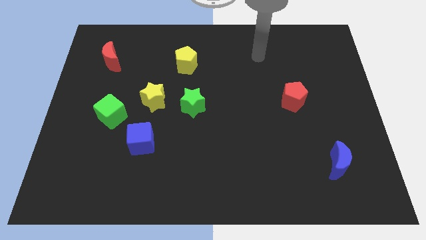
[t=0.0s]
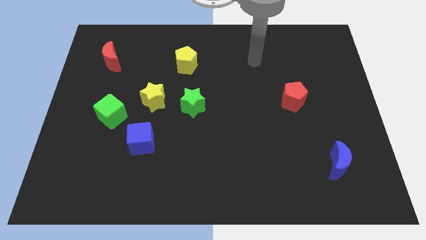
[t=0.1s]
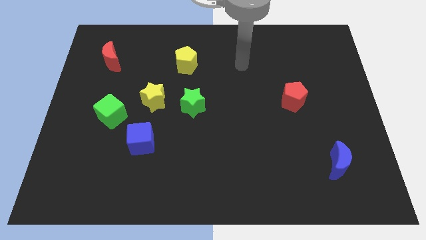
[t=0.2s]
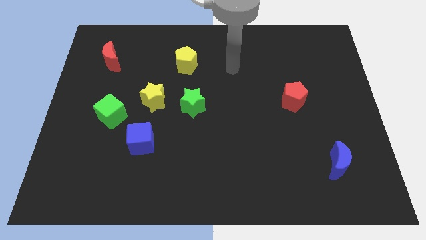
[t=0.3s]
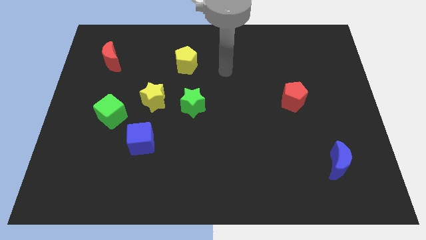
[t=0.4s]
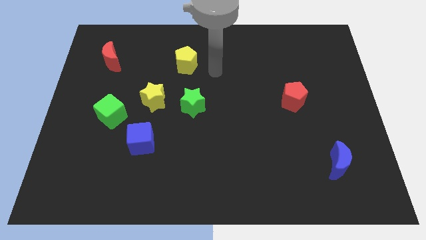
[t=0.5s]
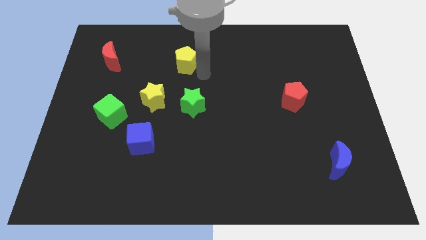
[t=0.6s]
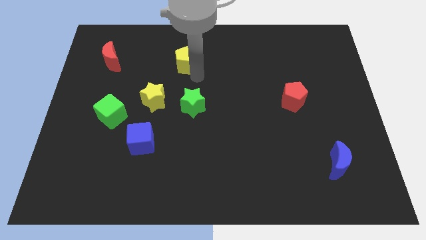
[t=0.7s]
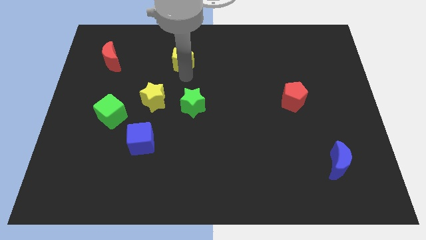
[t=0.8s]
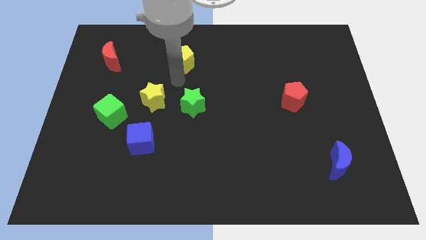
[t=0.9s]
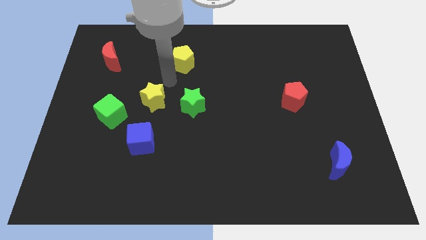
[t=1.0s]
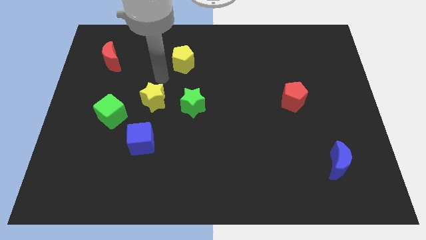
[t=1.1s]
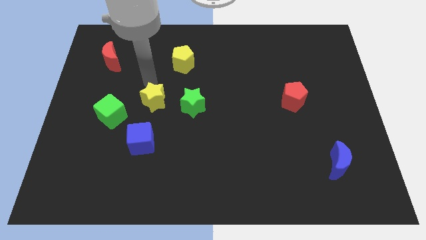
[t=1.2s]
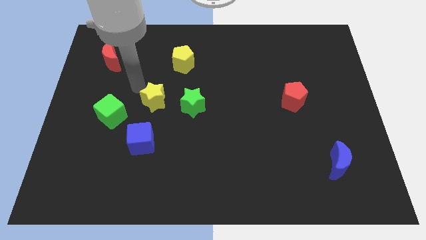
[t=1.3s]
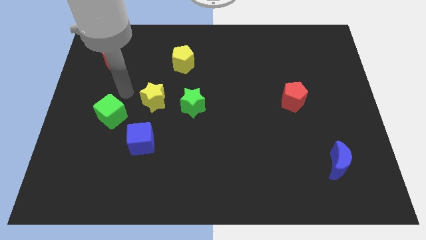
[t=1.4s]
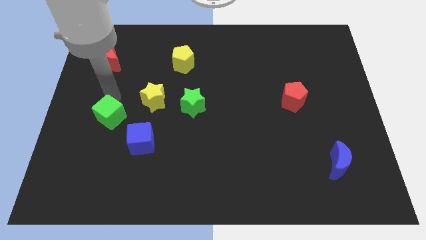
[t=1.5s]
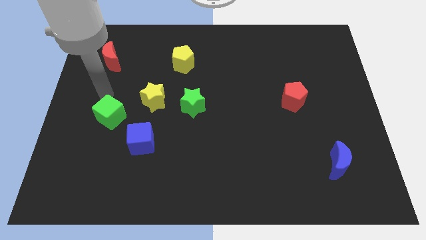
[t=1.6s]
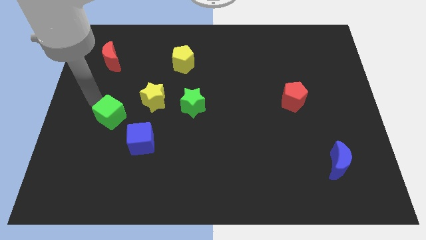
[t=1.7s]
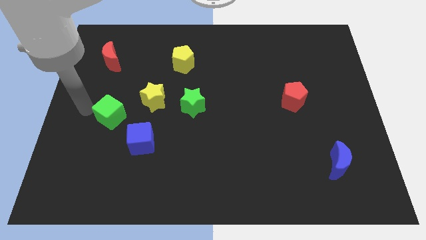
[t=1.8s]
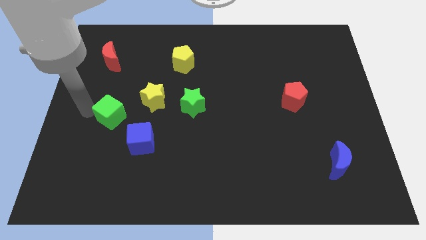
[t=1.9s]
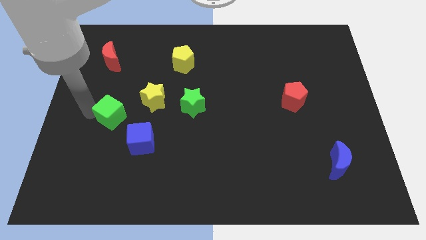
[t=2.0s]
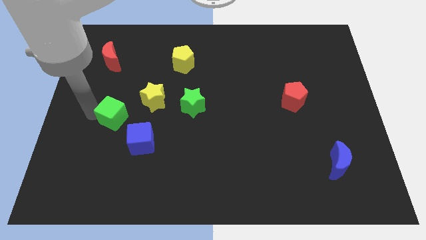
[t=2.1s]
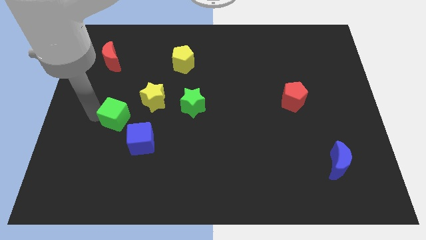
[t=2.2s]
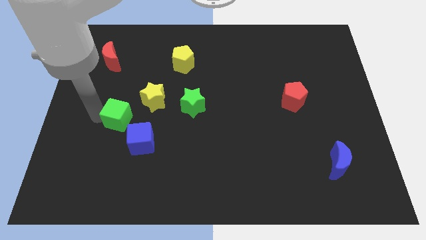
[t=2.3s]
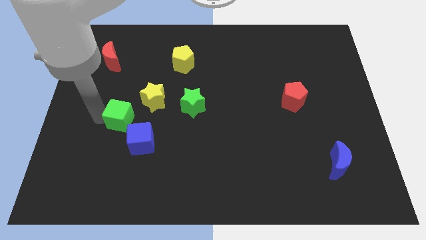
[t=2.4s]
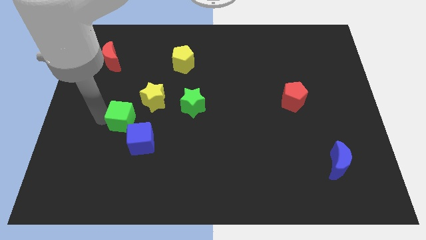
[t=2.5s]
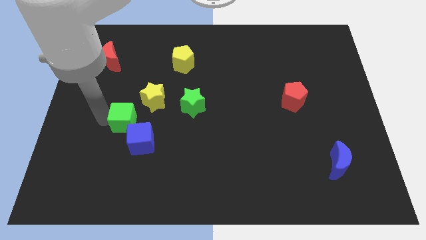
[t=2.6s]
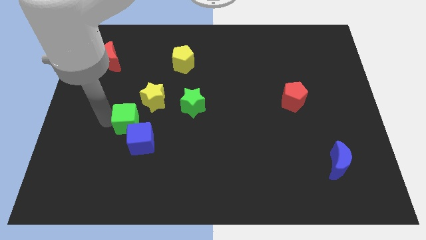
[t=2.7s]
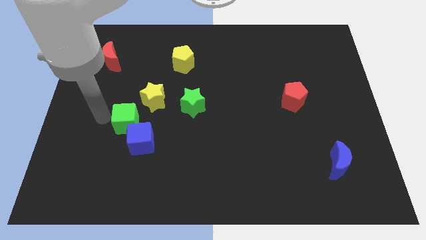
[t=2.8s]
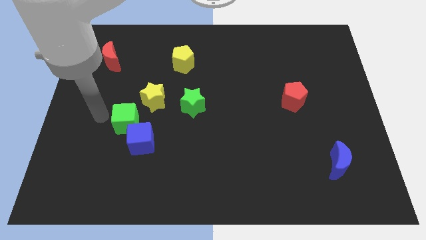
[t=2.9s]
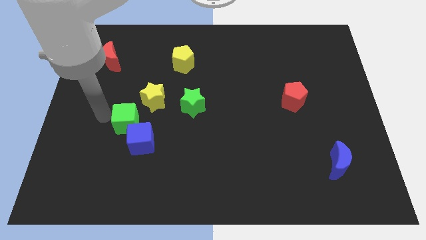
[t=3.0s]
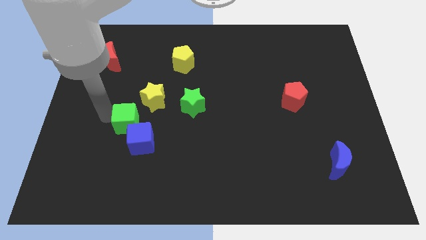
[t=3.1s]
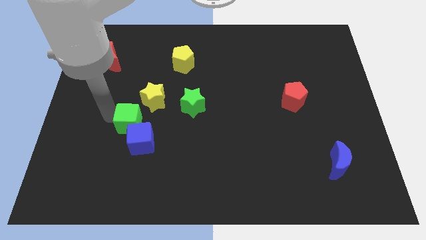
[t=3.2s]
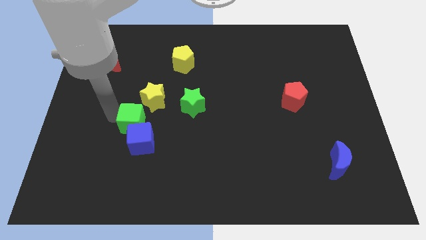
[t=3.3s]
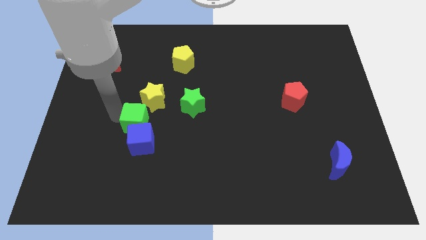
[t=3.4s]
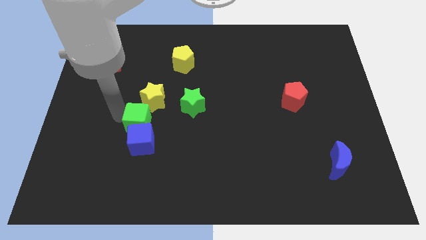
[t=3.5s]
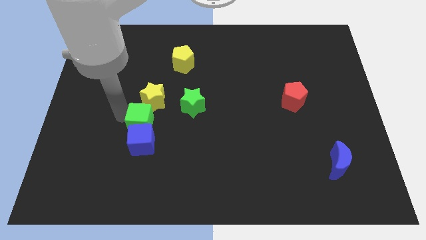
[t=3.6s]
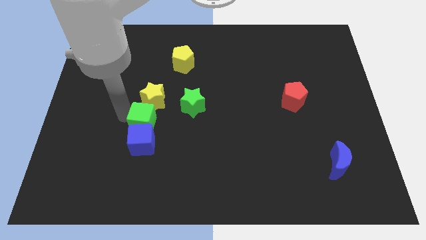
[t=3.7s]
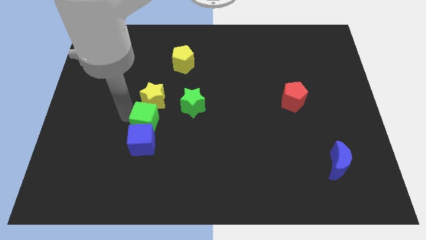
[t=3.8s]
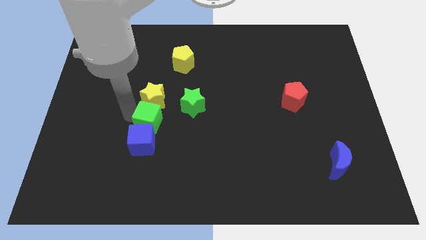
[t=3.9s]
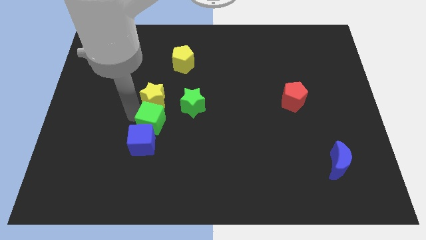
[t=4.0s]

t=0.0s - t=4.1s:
slightly slide the green cube down and then to the right

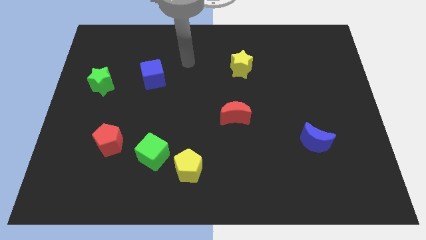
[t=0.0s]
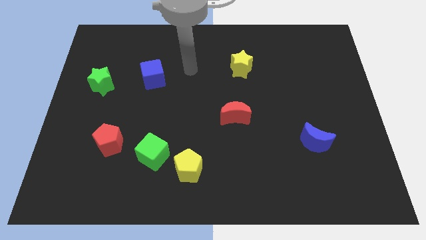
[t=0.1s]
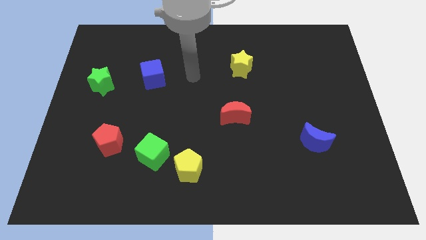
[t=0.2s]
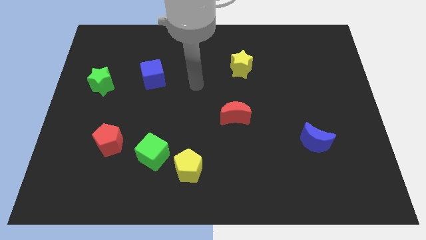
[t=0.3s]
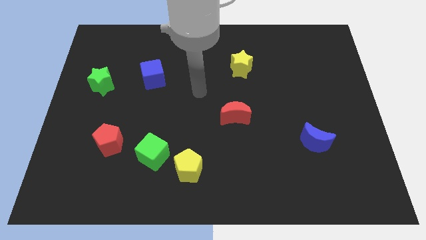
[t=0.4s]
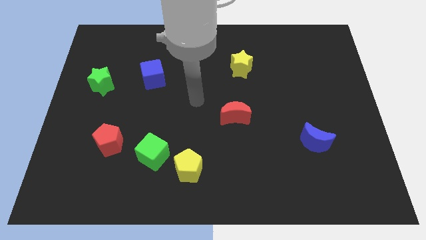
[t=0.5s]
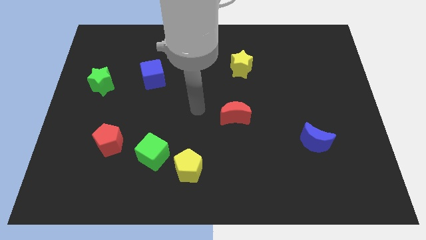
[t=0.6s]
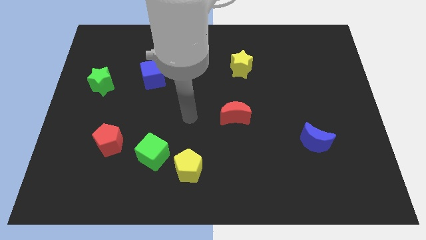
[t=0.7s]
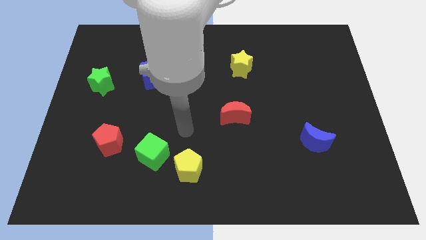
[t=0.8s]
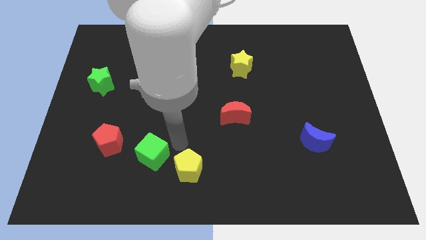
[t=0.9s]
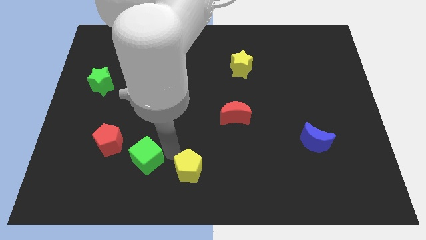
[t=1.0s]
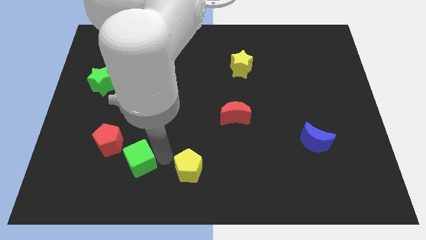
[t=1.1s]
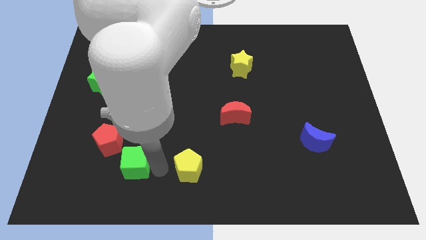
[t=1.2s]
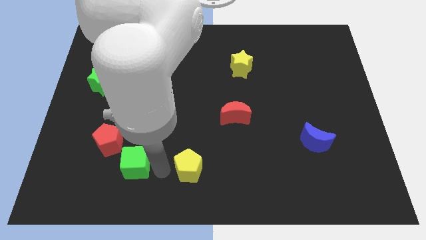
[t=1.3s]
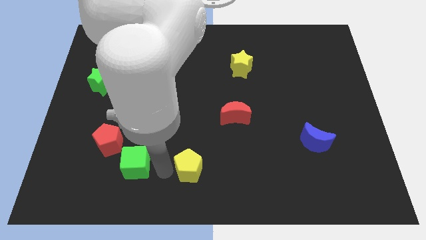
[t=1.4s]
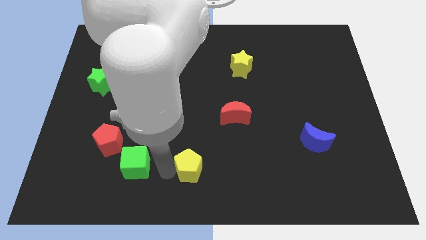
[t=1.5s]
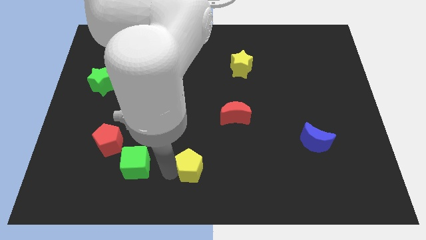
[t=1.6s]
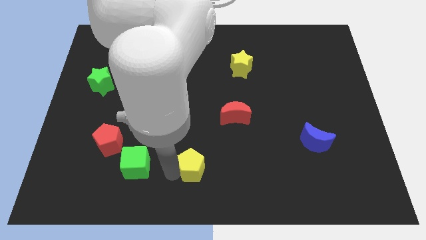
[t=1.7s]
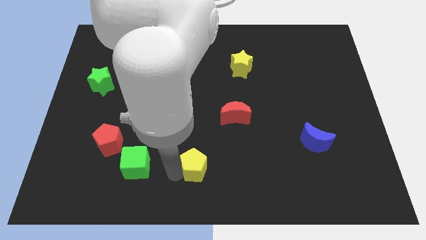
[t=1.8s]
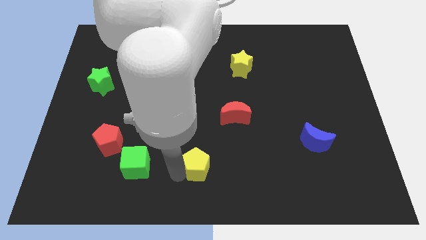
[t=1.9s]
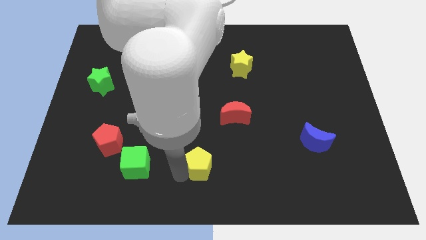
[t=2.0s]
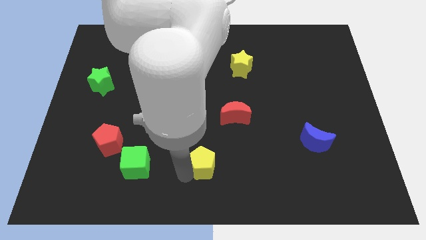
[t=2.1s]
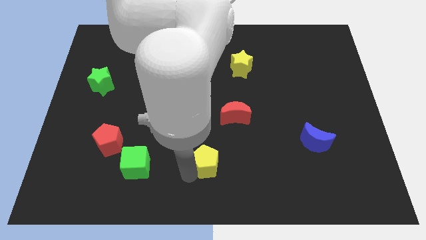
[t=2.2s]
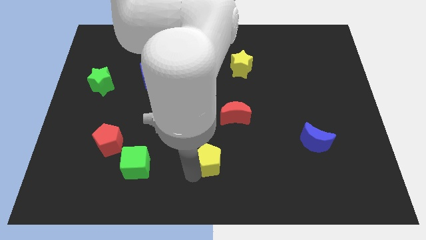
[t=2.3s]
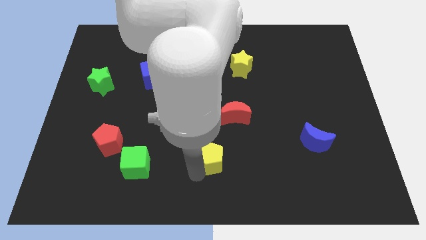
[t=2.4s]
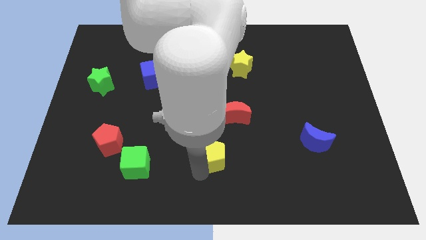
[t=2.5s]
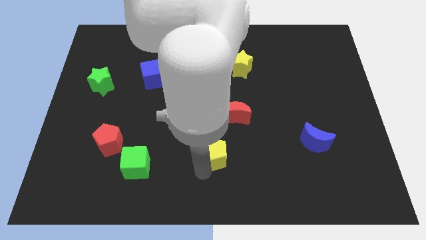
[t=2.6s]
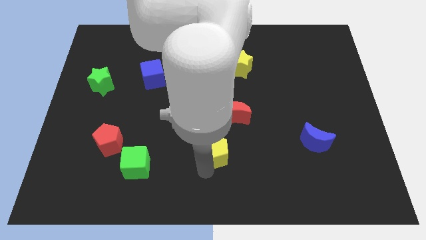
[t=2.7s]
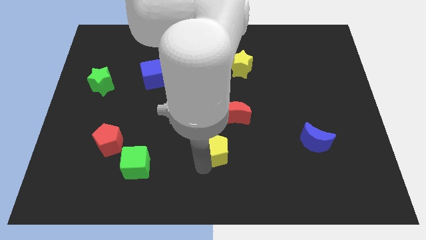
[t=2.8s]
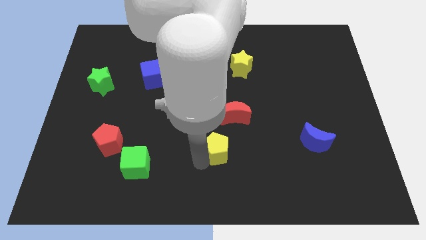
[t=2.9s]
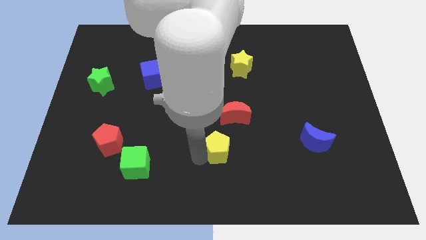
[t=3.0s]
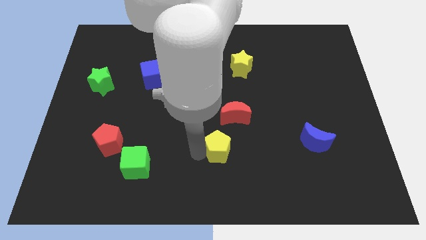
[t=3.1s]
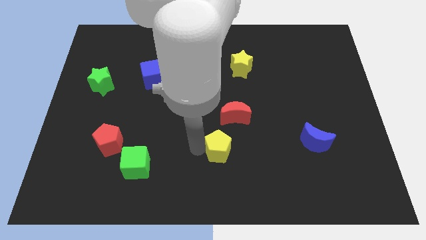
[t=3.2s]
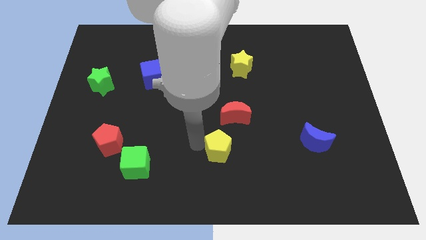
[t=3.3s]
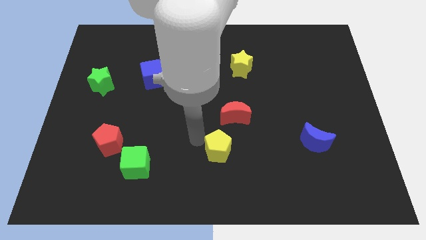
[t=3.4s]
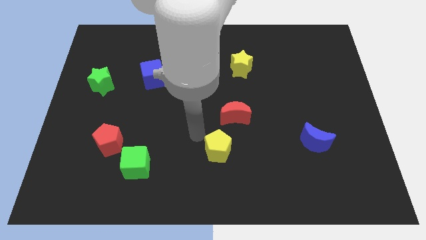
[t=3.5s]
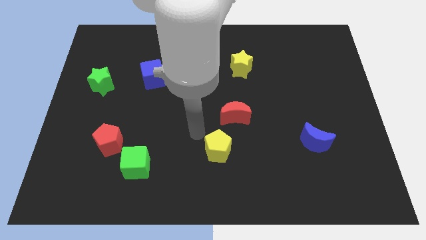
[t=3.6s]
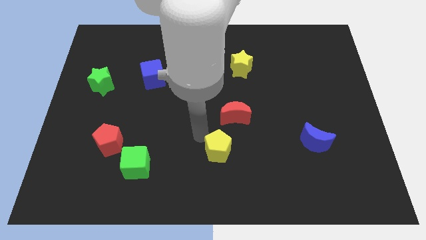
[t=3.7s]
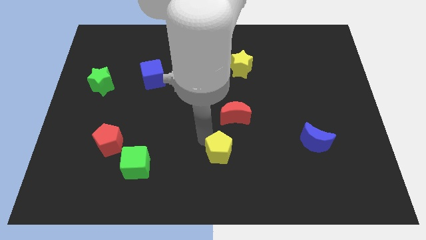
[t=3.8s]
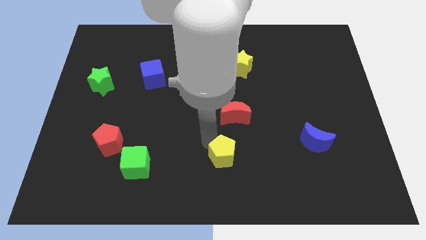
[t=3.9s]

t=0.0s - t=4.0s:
slide the yellow pentagon to the right a little

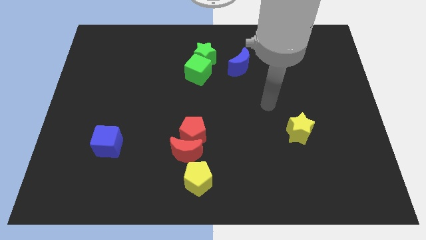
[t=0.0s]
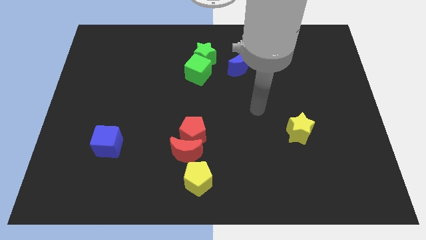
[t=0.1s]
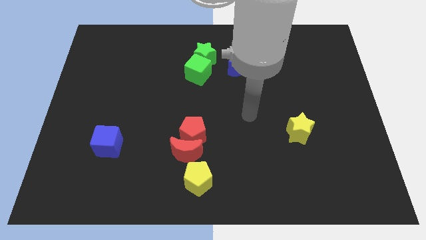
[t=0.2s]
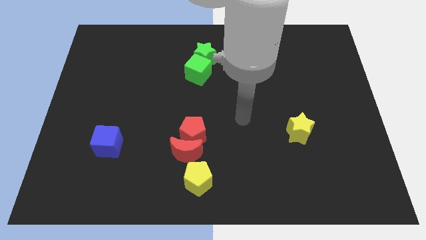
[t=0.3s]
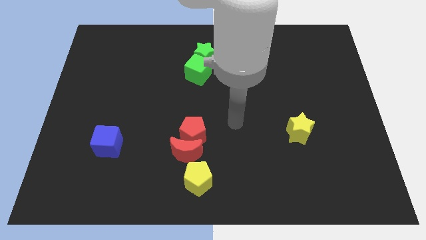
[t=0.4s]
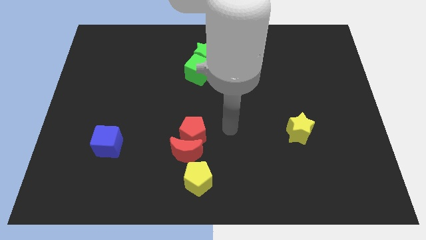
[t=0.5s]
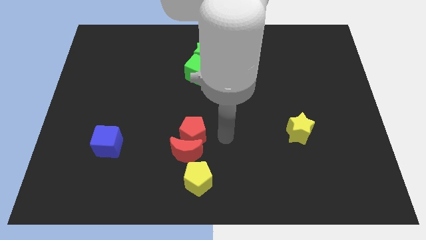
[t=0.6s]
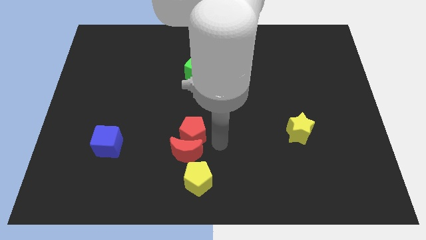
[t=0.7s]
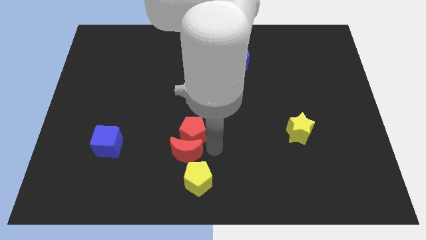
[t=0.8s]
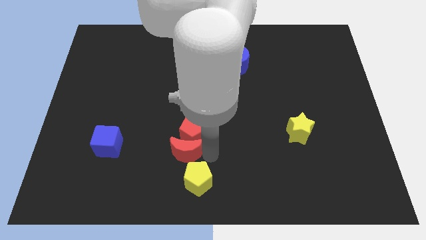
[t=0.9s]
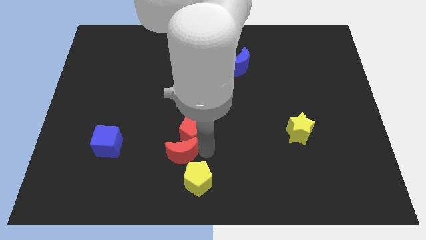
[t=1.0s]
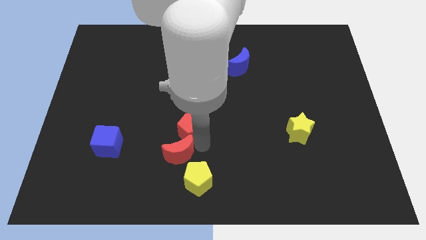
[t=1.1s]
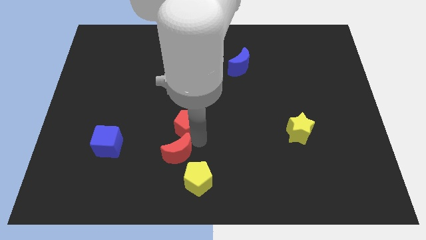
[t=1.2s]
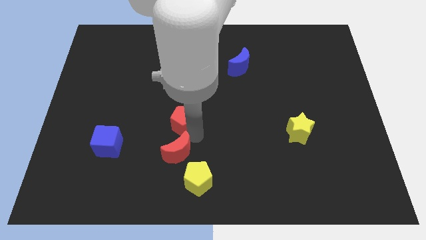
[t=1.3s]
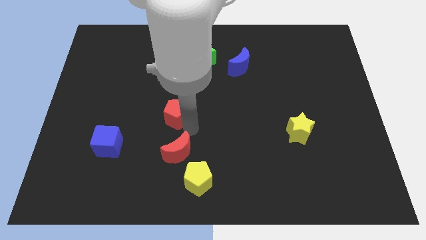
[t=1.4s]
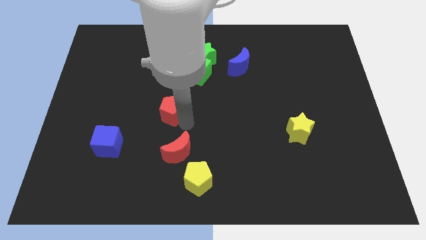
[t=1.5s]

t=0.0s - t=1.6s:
slide the red pentagon upwards and left a little bit
